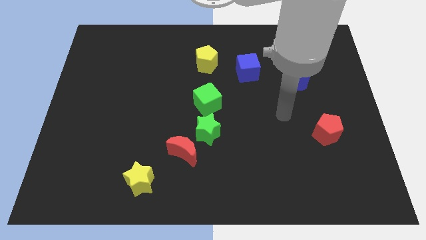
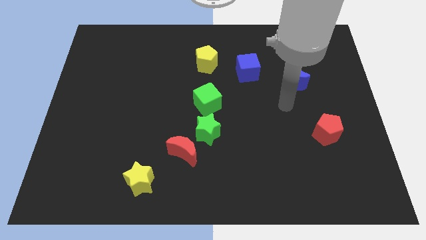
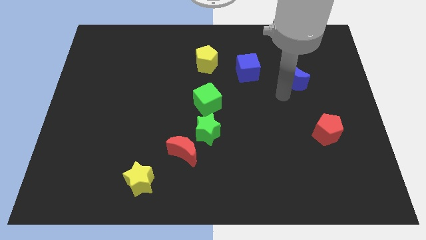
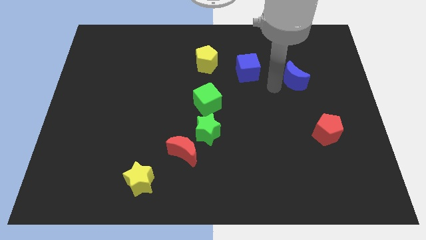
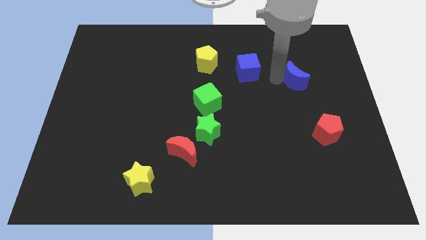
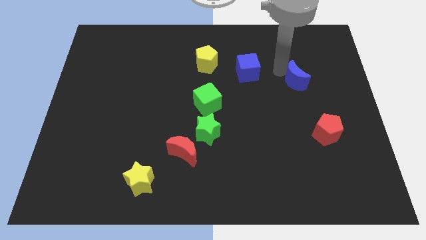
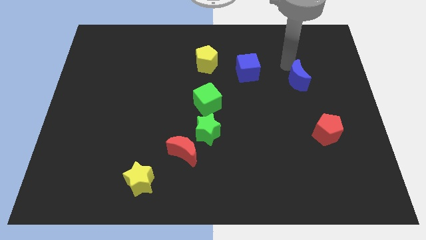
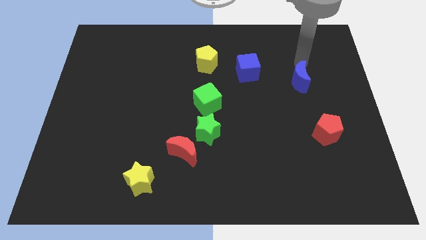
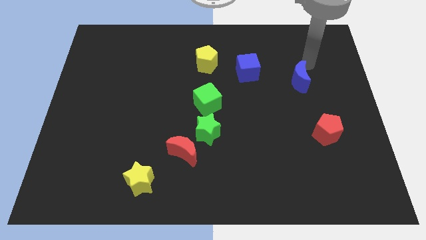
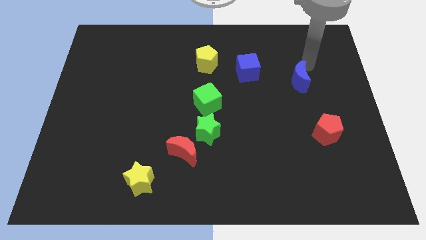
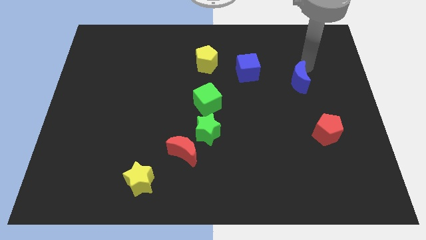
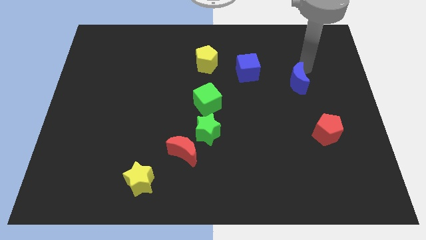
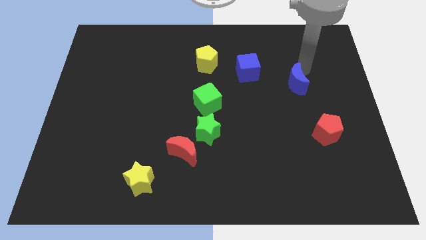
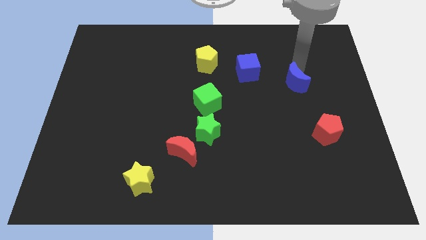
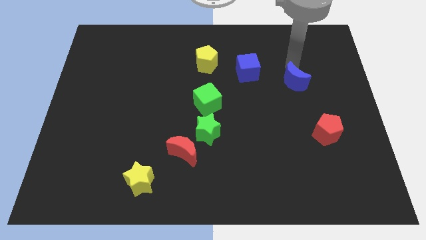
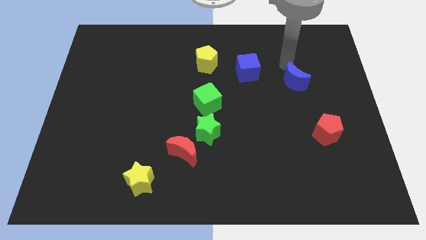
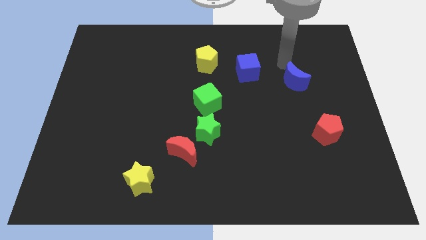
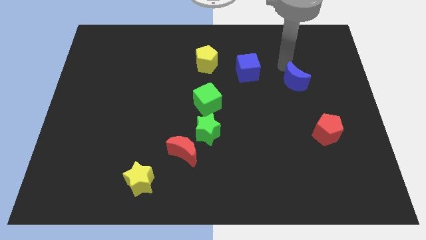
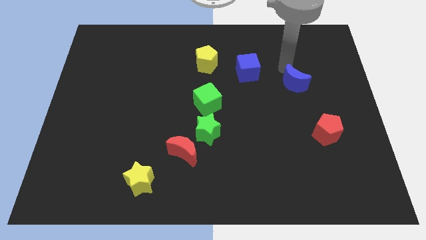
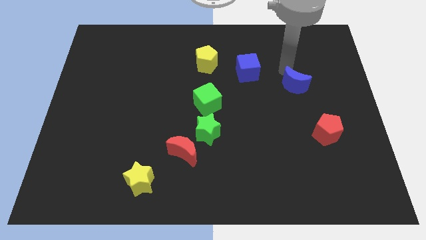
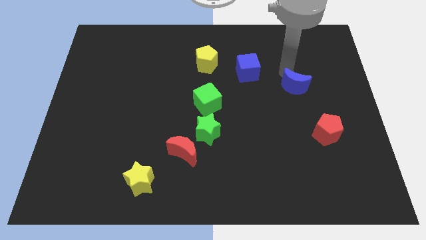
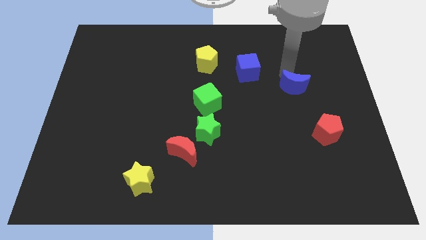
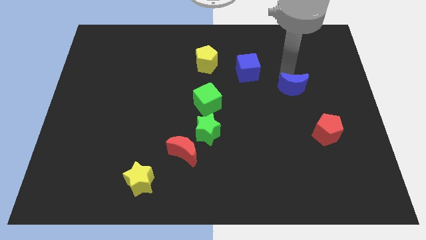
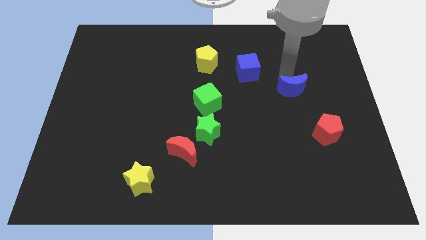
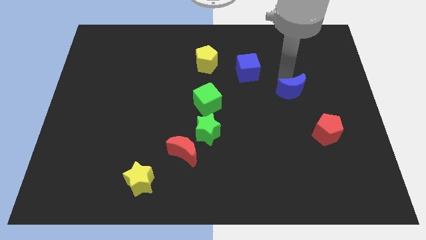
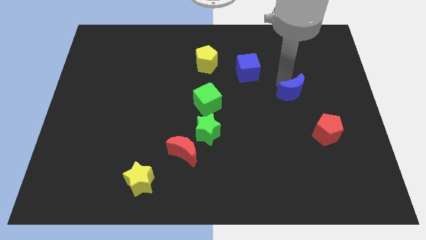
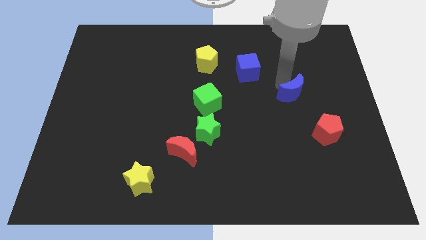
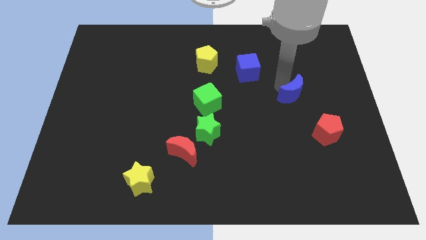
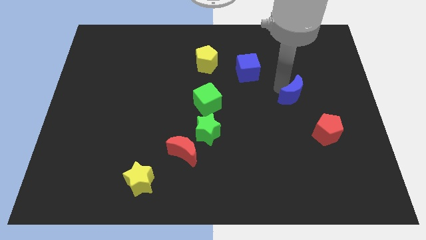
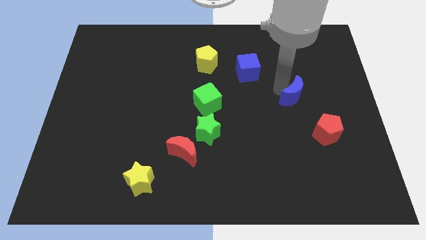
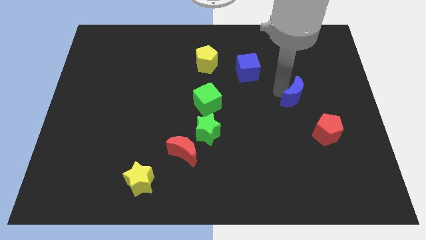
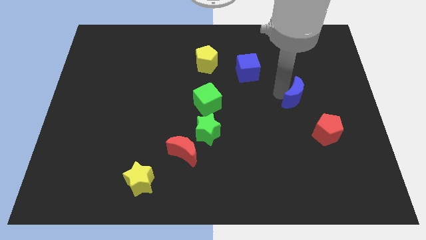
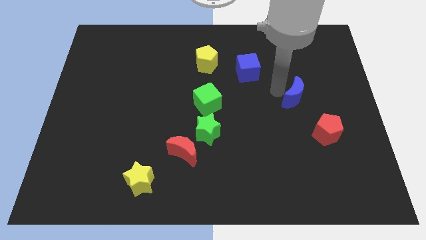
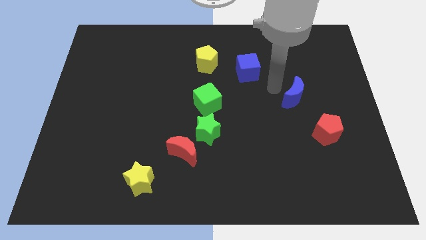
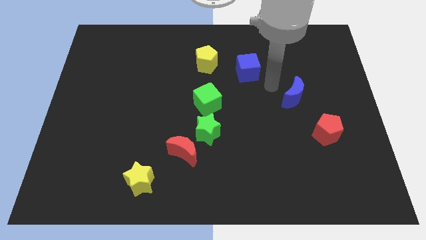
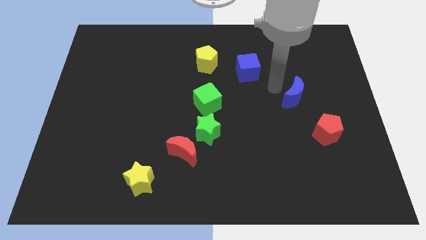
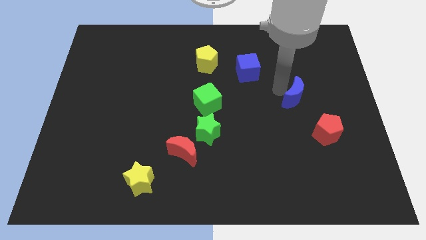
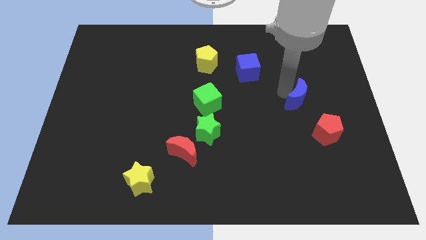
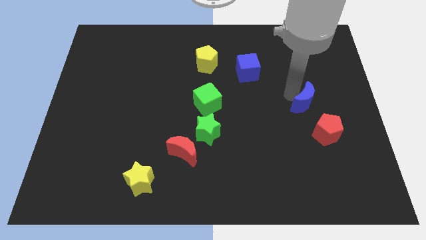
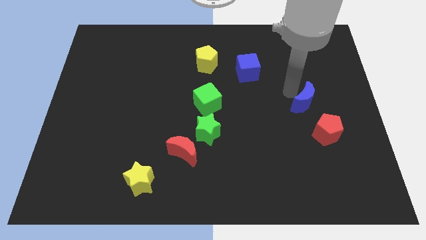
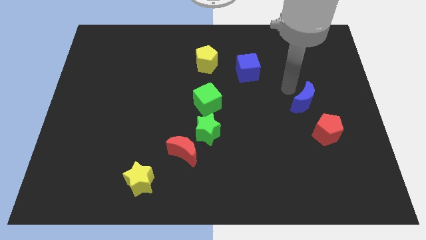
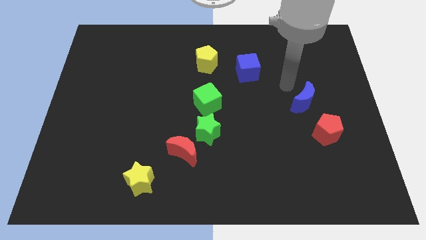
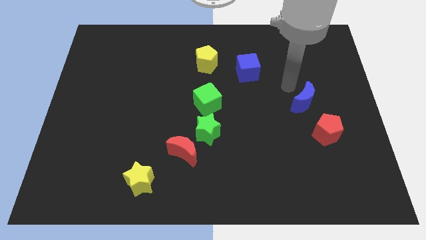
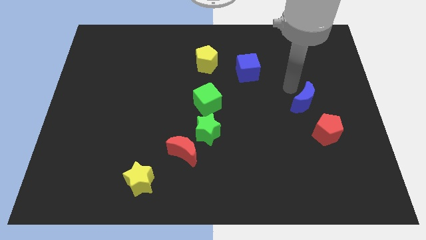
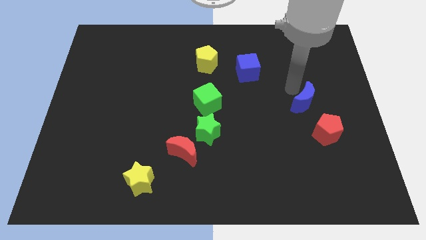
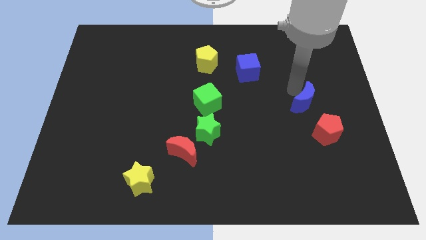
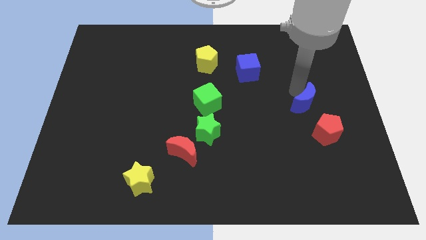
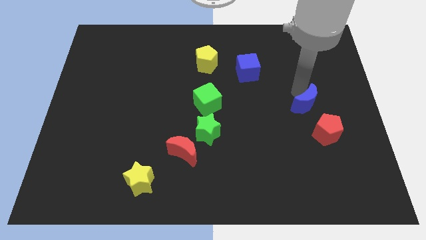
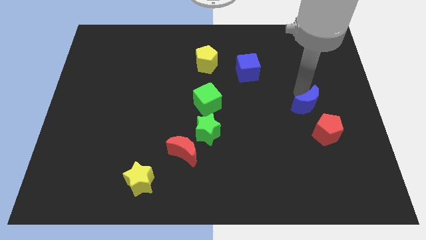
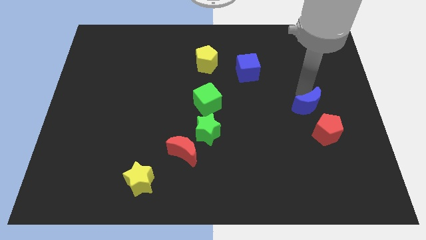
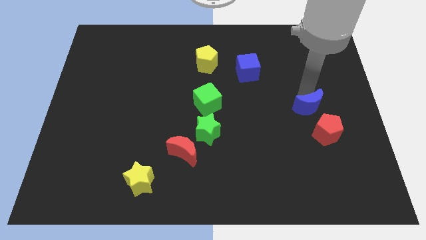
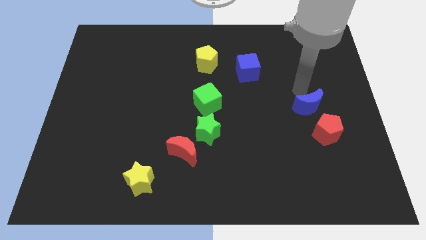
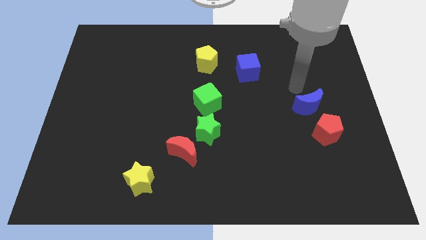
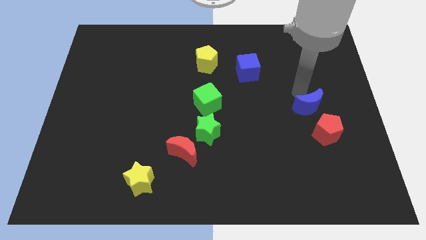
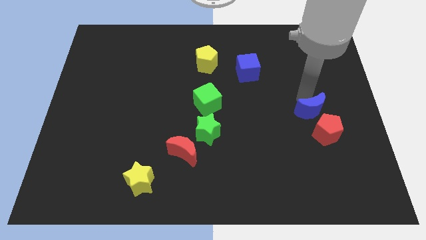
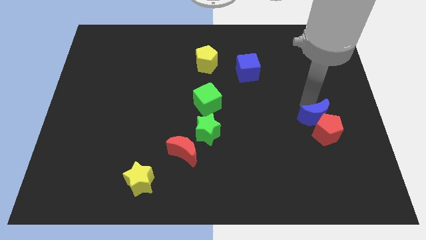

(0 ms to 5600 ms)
slide the blue moon next to the red pentagon

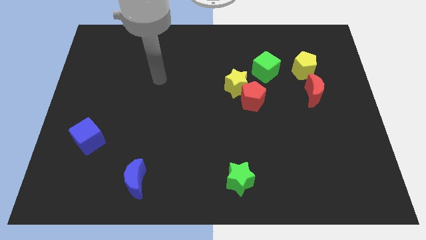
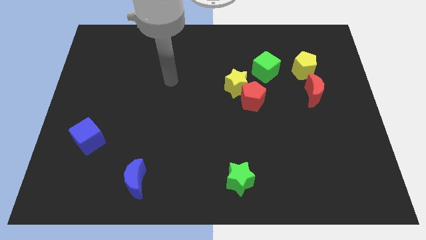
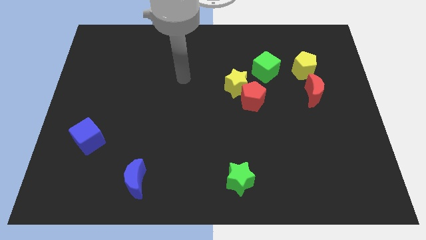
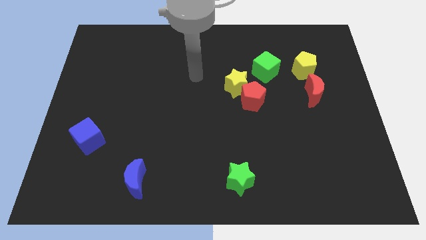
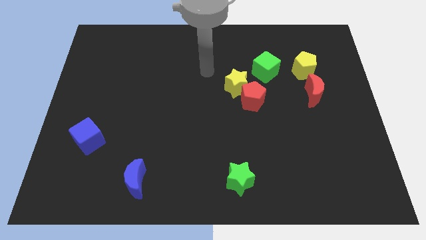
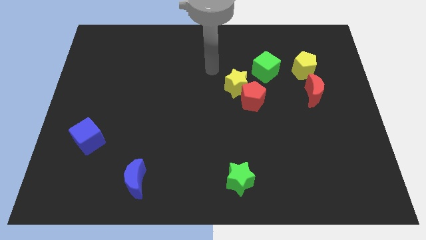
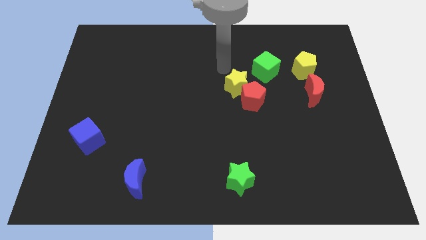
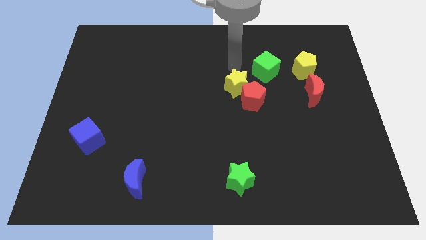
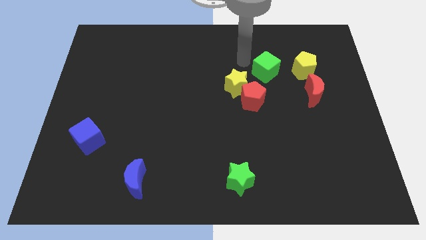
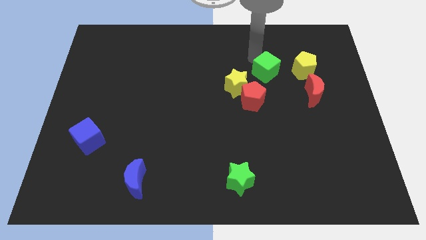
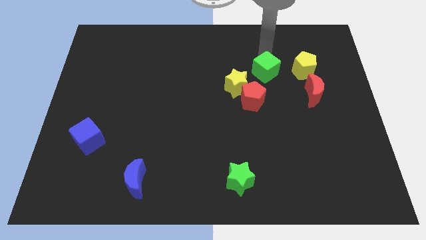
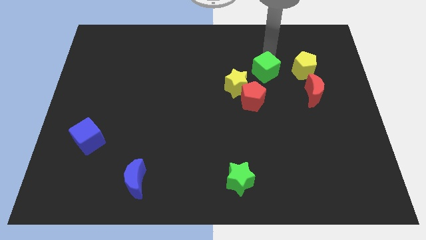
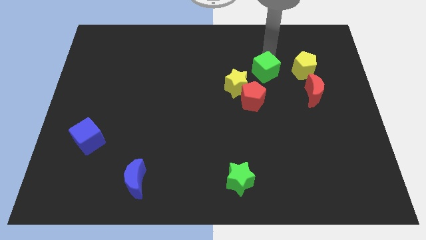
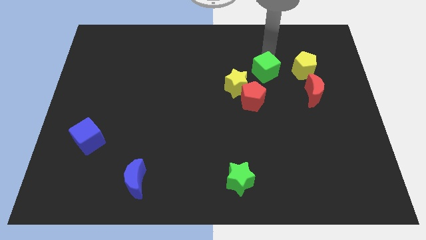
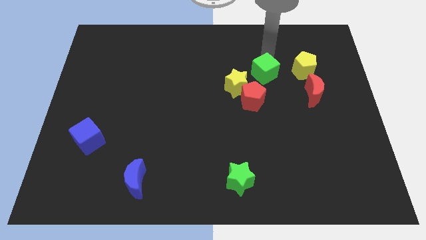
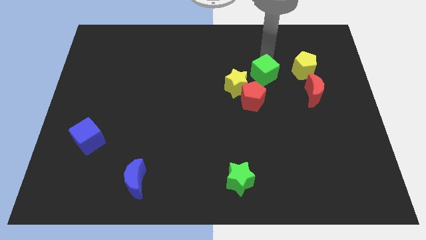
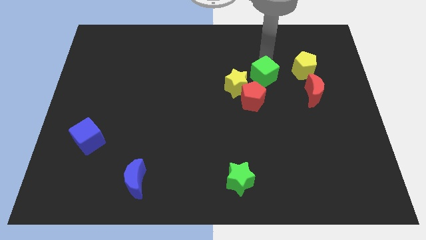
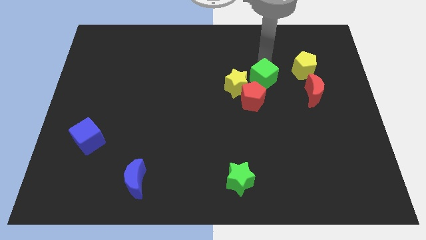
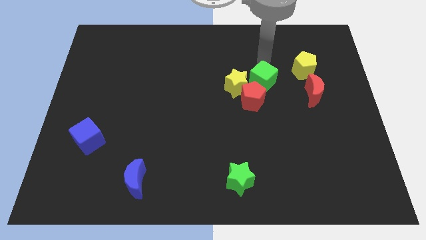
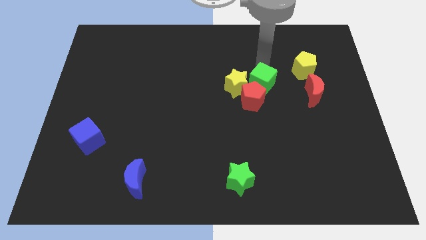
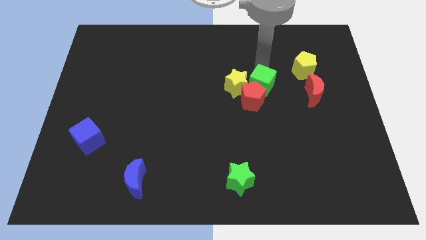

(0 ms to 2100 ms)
push the green cube next to the red pentagon
